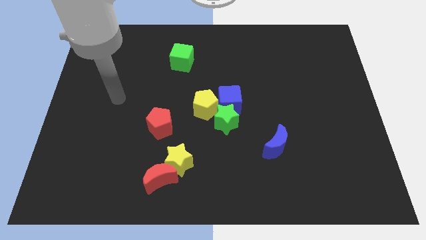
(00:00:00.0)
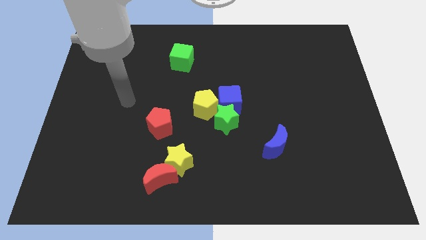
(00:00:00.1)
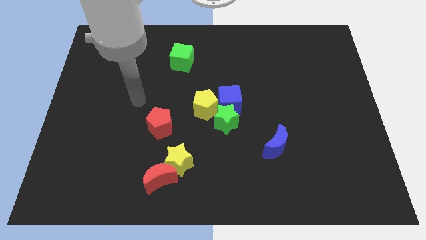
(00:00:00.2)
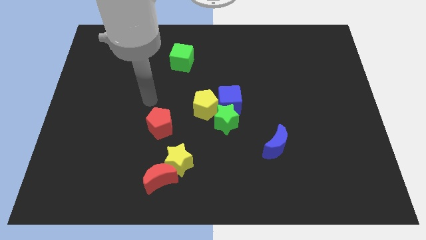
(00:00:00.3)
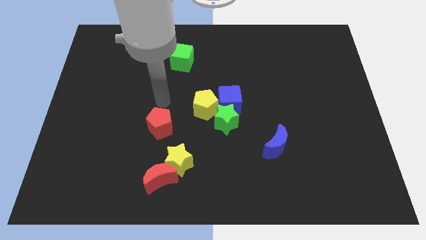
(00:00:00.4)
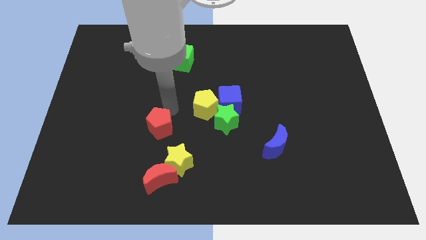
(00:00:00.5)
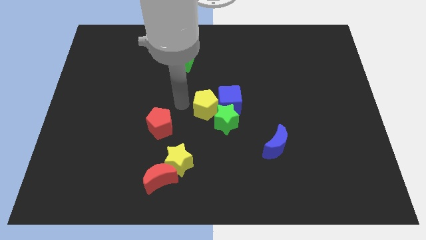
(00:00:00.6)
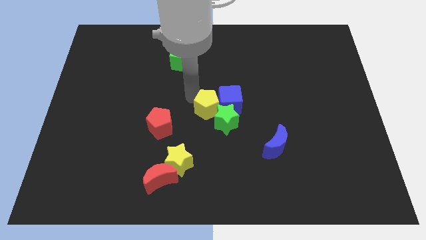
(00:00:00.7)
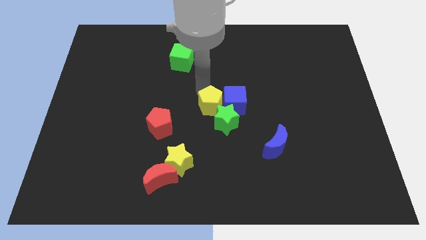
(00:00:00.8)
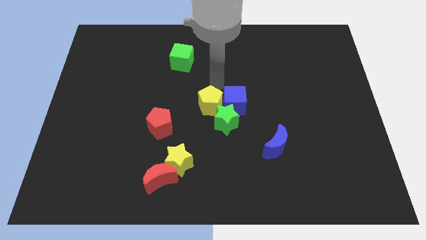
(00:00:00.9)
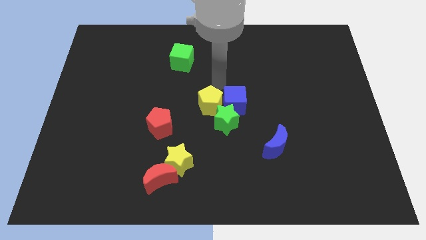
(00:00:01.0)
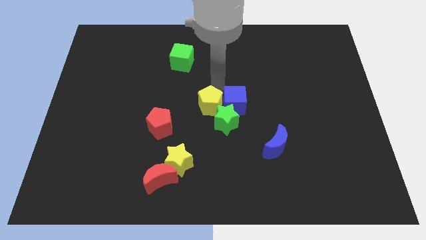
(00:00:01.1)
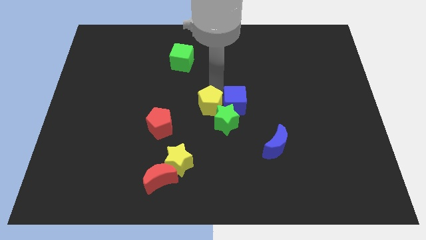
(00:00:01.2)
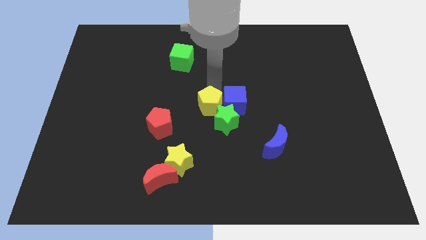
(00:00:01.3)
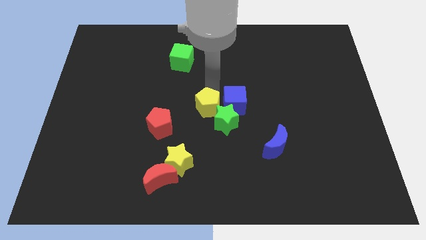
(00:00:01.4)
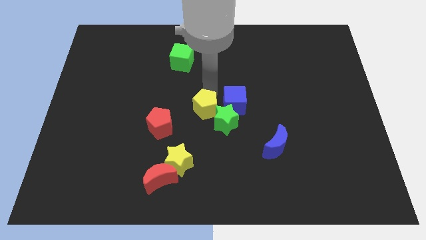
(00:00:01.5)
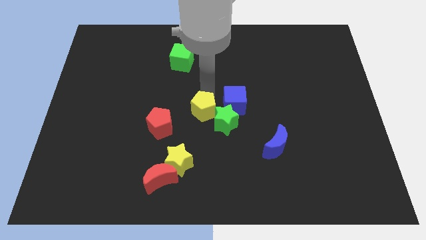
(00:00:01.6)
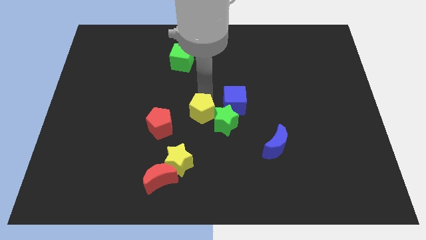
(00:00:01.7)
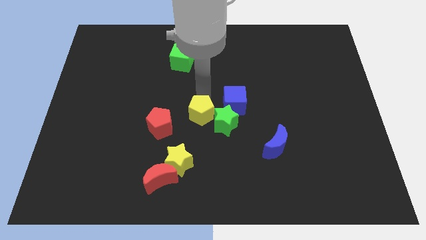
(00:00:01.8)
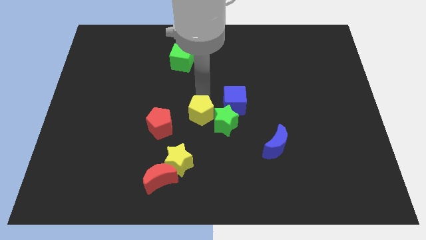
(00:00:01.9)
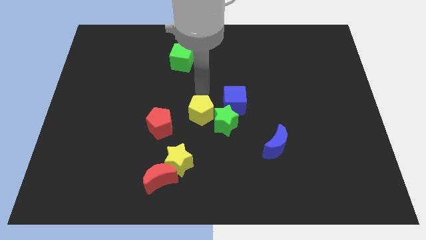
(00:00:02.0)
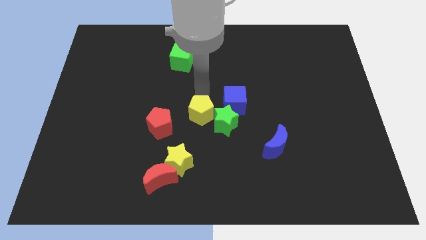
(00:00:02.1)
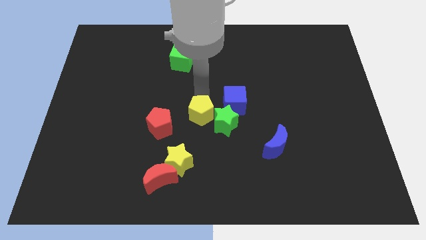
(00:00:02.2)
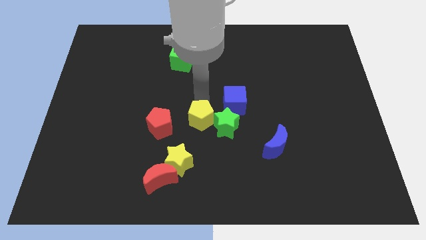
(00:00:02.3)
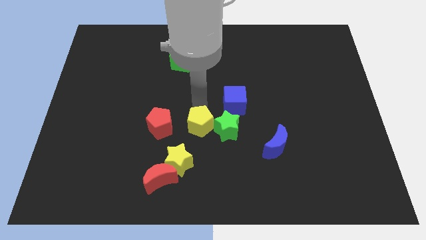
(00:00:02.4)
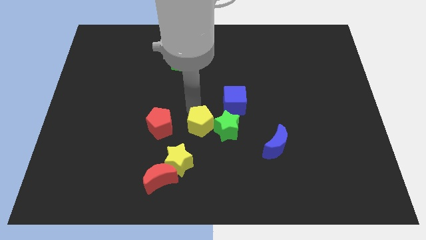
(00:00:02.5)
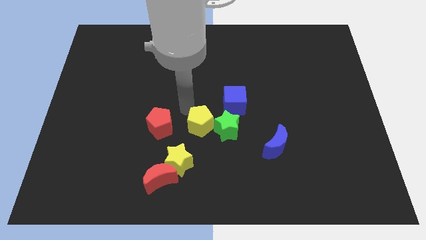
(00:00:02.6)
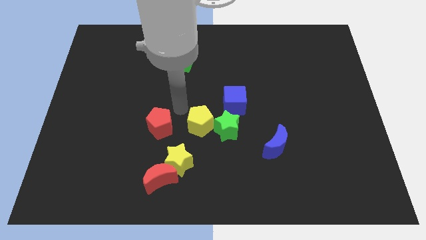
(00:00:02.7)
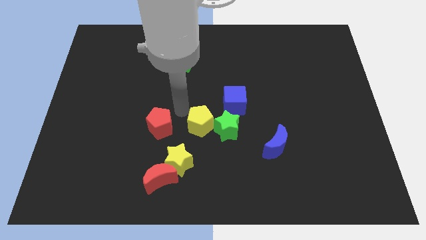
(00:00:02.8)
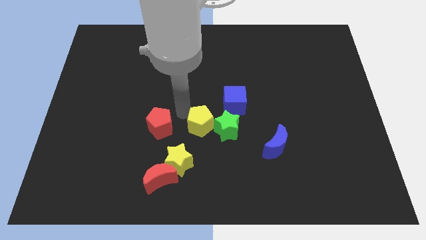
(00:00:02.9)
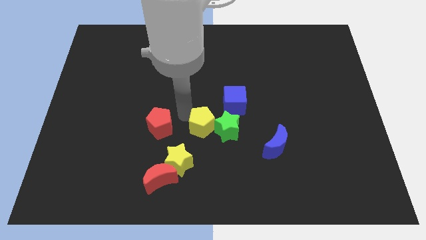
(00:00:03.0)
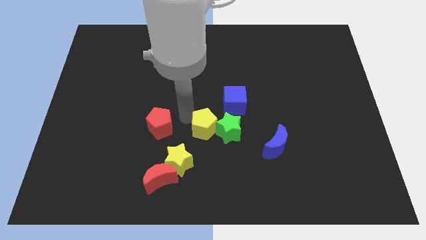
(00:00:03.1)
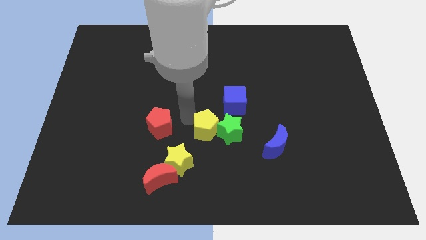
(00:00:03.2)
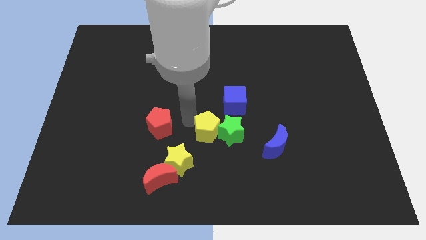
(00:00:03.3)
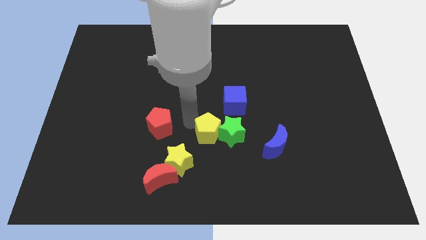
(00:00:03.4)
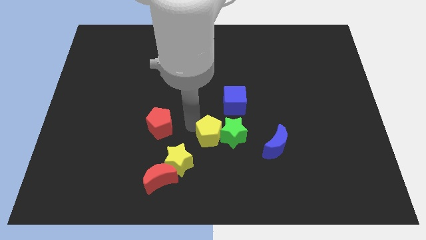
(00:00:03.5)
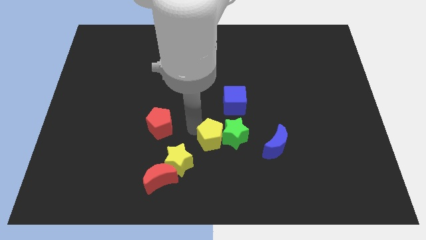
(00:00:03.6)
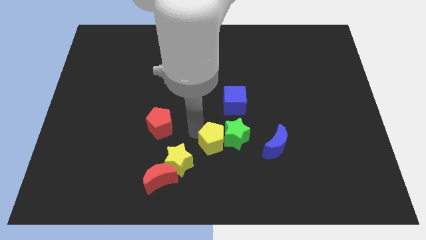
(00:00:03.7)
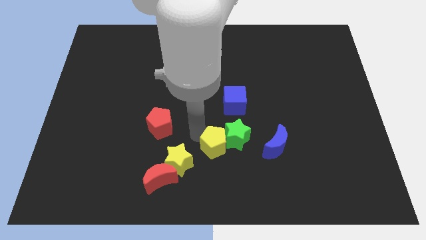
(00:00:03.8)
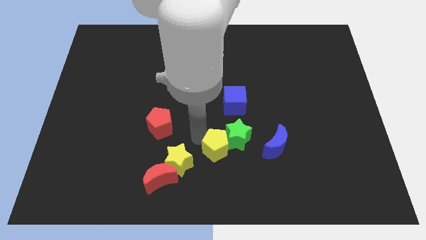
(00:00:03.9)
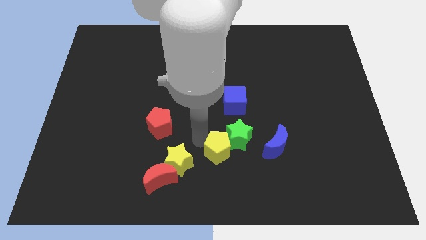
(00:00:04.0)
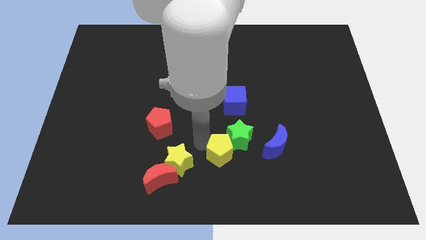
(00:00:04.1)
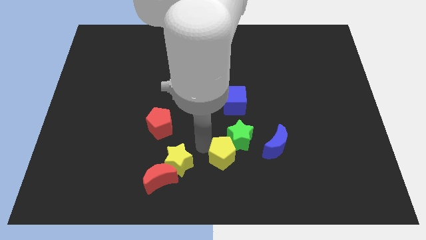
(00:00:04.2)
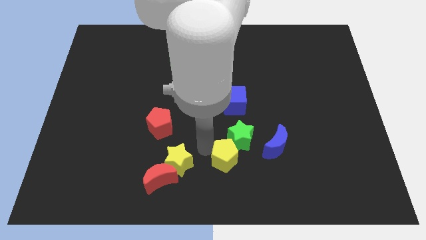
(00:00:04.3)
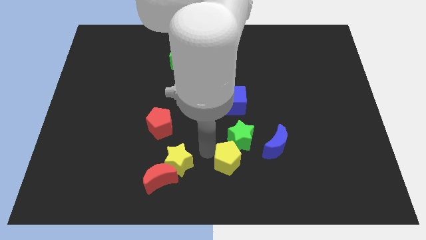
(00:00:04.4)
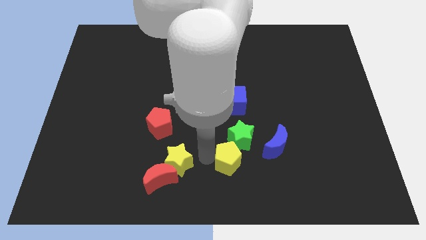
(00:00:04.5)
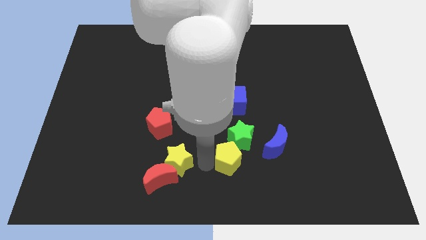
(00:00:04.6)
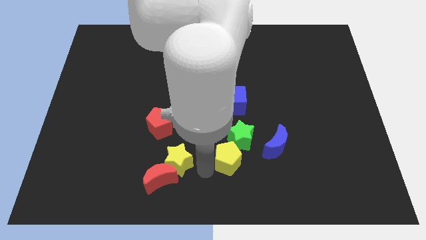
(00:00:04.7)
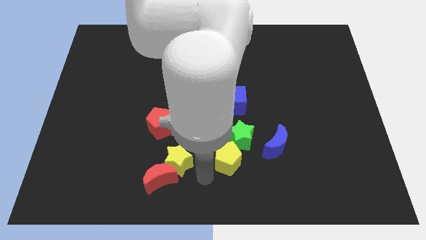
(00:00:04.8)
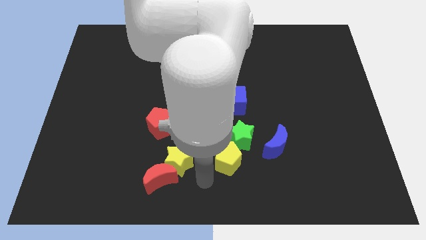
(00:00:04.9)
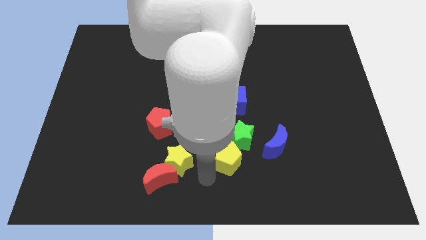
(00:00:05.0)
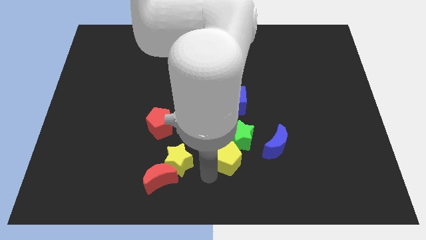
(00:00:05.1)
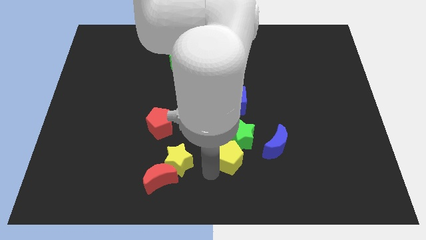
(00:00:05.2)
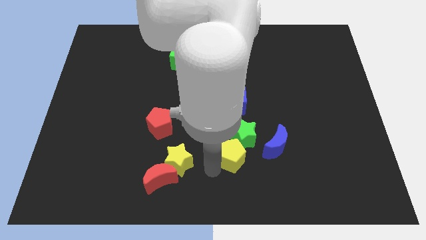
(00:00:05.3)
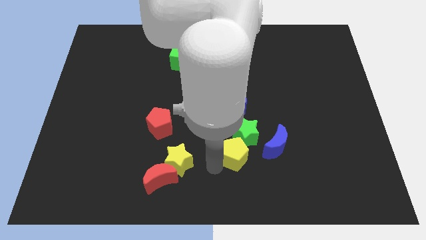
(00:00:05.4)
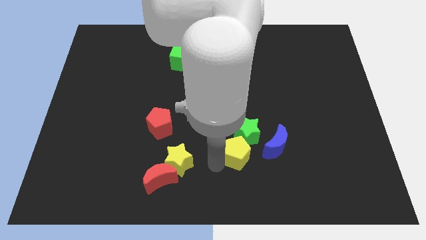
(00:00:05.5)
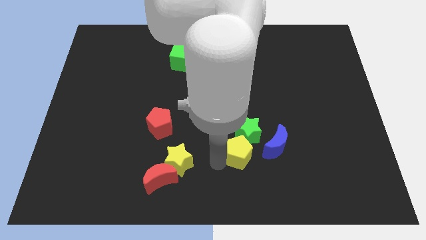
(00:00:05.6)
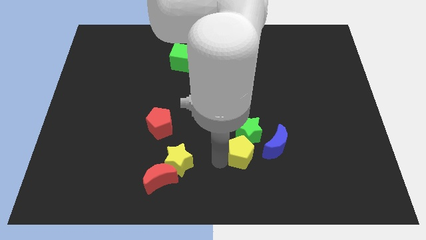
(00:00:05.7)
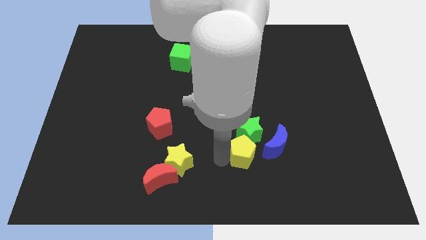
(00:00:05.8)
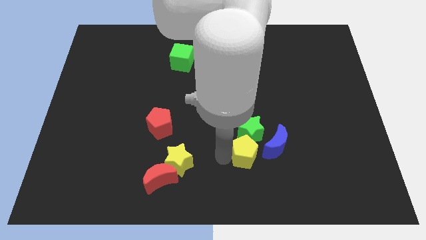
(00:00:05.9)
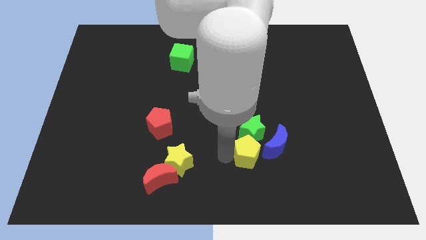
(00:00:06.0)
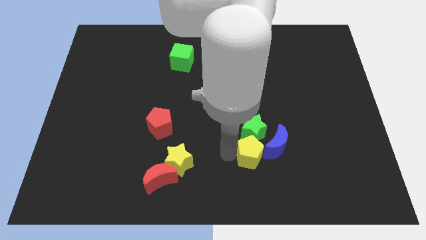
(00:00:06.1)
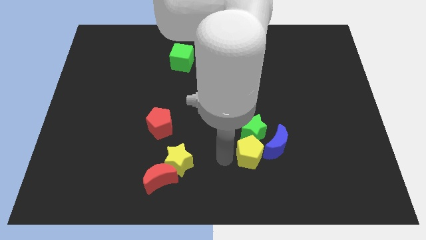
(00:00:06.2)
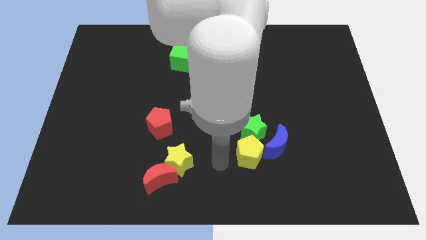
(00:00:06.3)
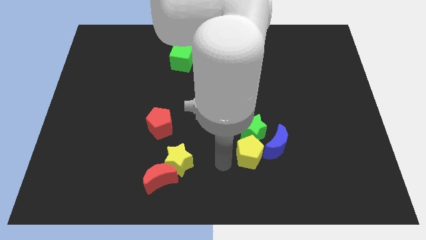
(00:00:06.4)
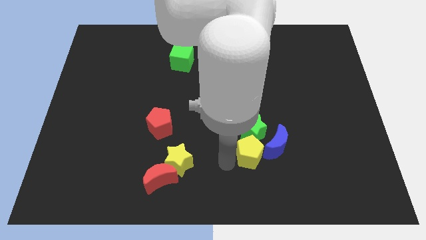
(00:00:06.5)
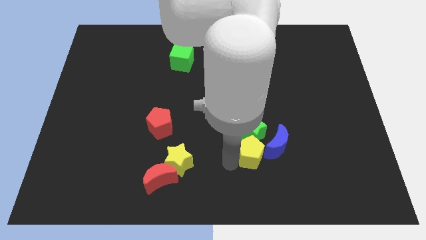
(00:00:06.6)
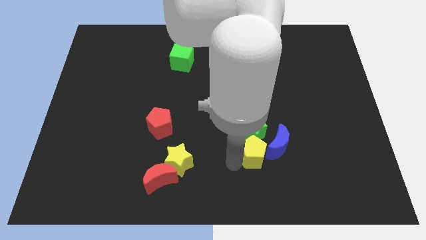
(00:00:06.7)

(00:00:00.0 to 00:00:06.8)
slide the yellow pentagon next to the blue moon

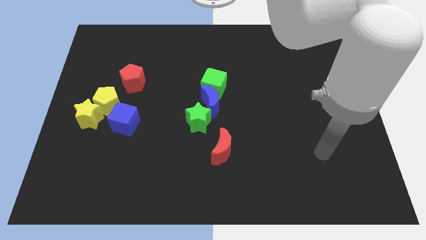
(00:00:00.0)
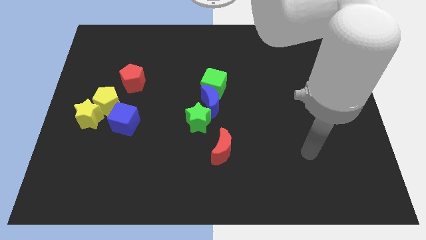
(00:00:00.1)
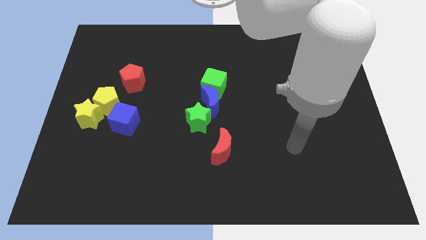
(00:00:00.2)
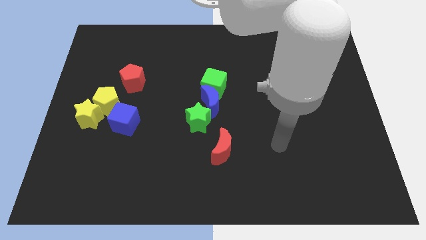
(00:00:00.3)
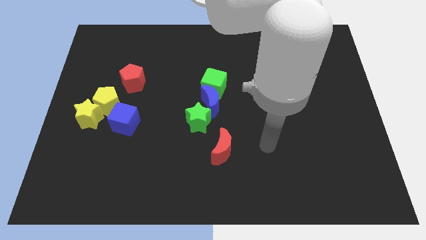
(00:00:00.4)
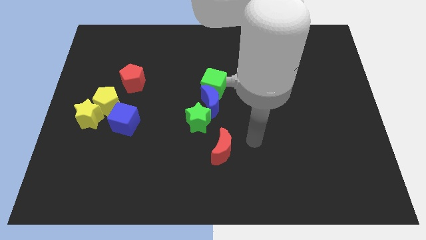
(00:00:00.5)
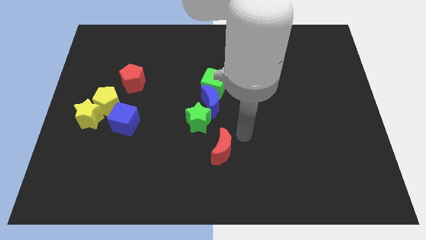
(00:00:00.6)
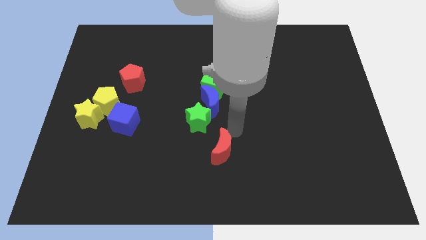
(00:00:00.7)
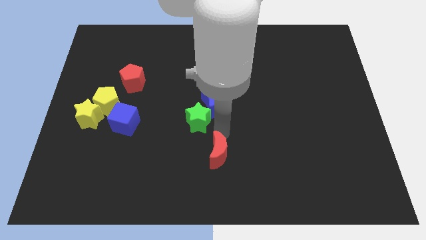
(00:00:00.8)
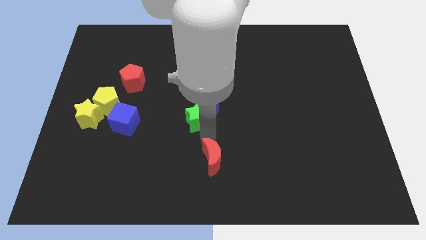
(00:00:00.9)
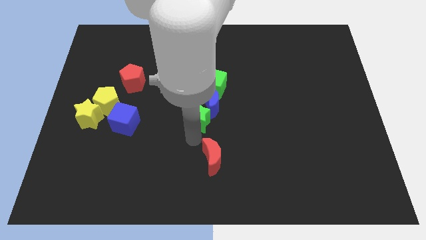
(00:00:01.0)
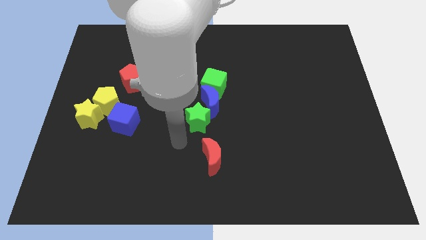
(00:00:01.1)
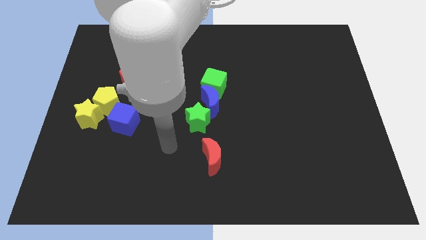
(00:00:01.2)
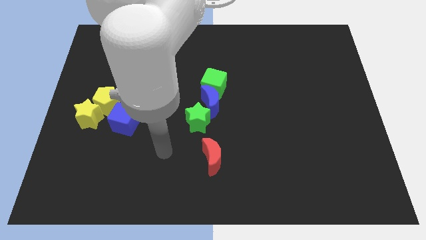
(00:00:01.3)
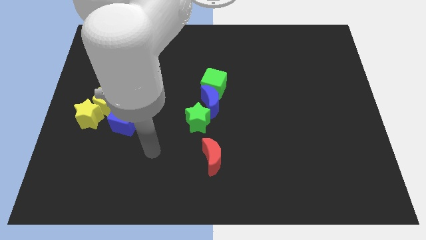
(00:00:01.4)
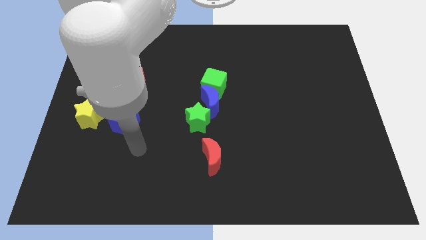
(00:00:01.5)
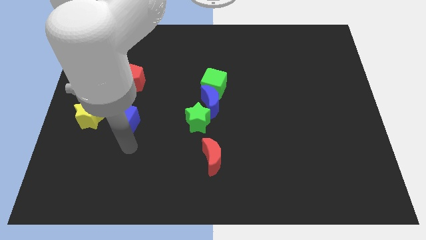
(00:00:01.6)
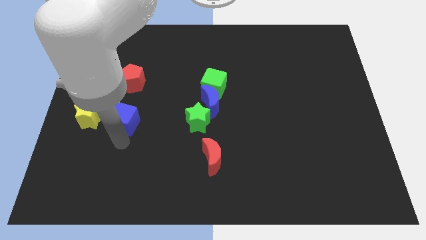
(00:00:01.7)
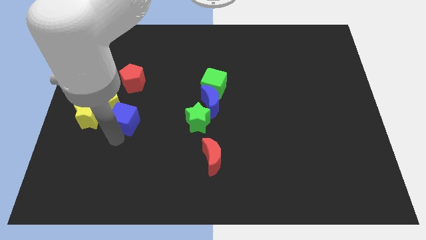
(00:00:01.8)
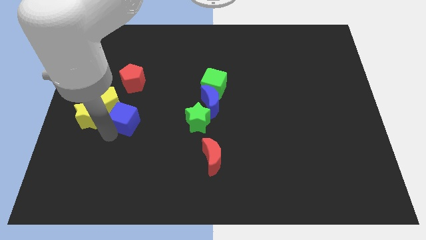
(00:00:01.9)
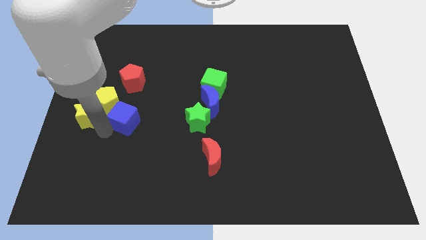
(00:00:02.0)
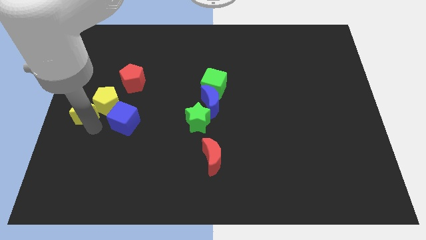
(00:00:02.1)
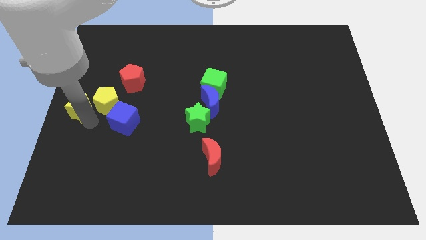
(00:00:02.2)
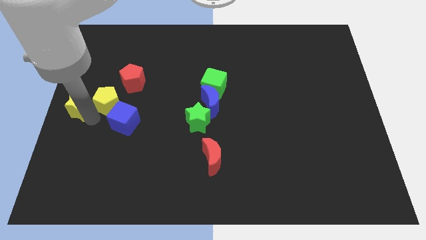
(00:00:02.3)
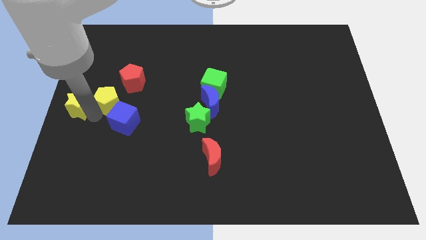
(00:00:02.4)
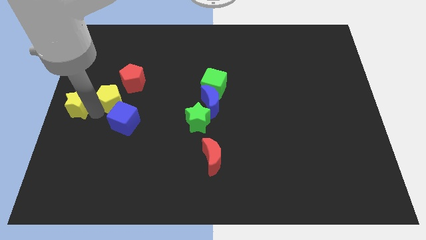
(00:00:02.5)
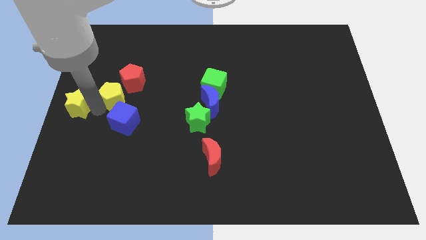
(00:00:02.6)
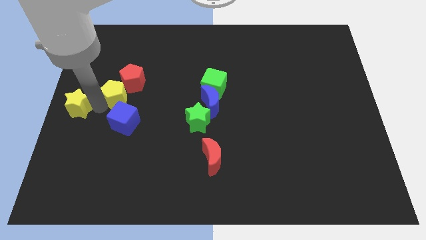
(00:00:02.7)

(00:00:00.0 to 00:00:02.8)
move the yellow pentagon to the red pentagon
